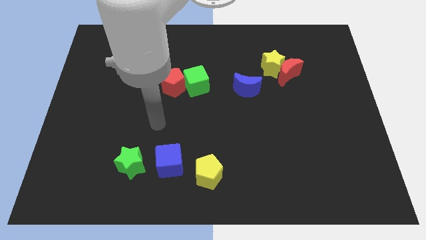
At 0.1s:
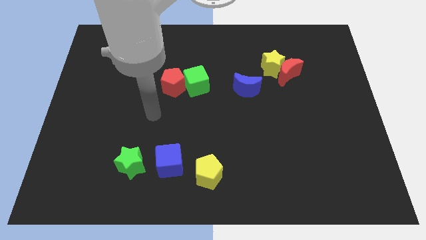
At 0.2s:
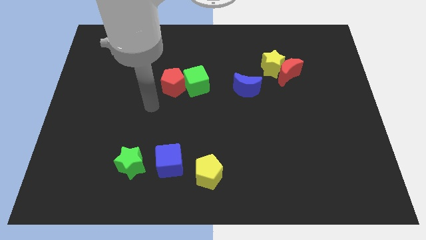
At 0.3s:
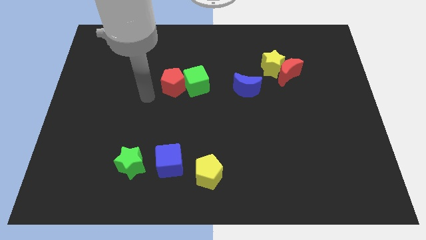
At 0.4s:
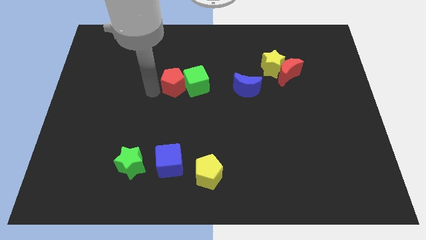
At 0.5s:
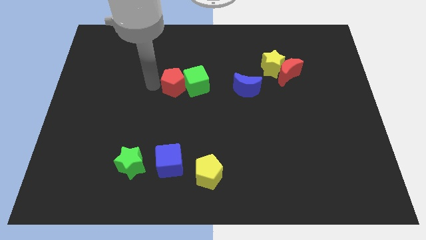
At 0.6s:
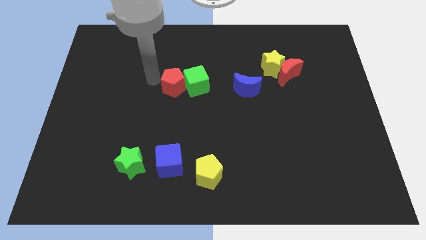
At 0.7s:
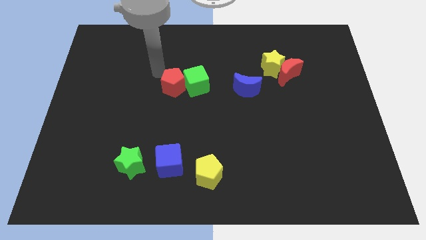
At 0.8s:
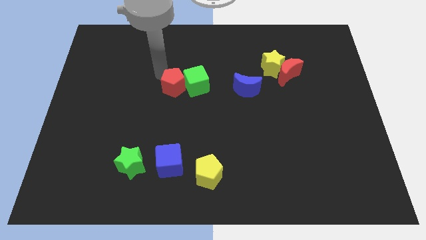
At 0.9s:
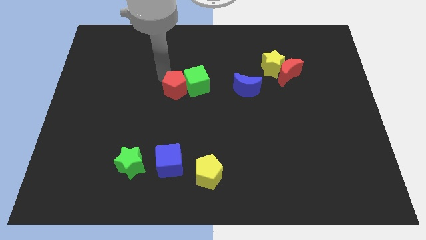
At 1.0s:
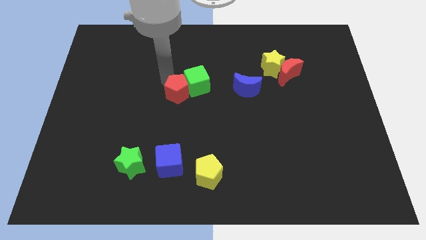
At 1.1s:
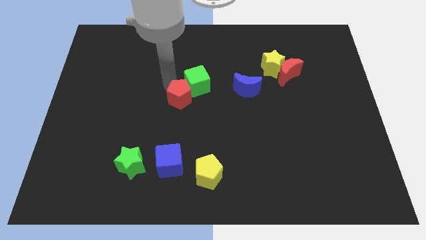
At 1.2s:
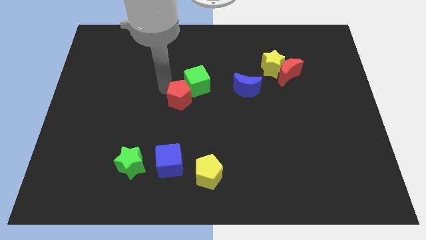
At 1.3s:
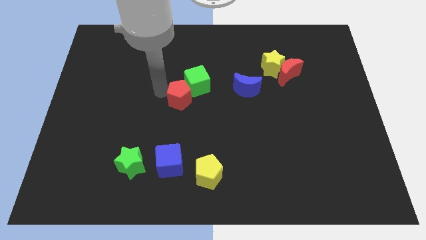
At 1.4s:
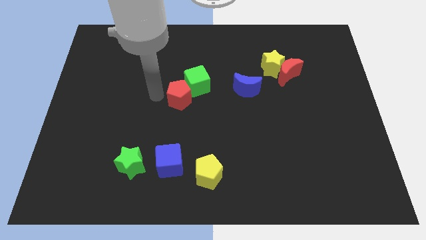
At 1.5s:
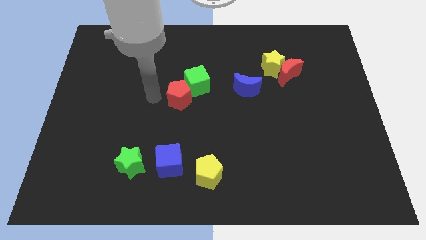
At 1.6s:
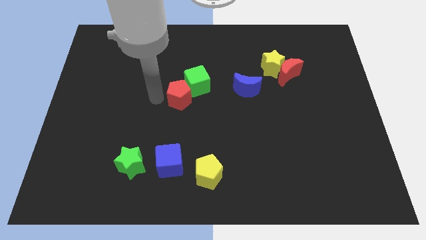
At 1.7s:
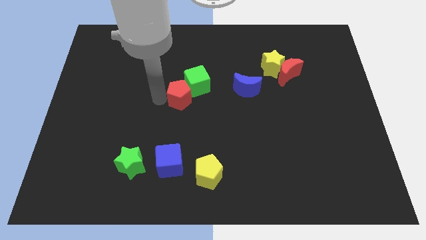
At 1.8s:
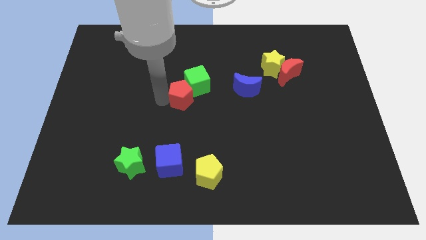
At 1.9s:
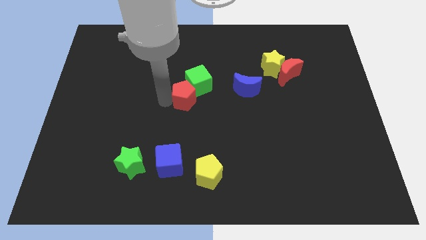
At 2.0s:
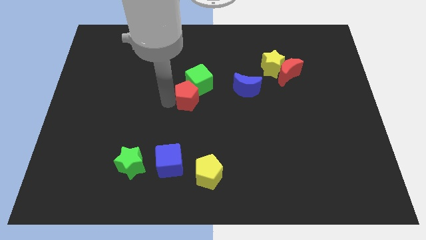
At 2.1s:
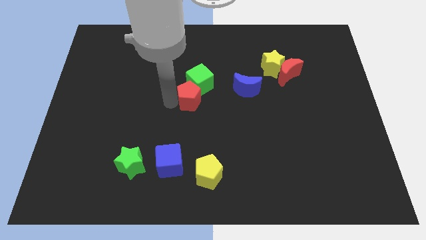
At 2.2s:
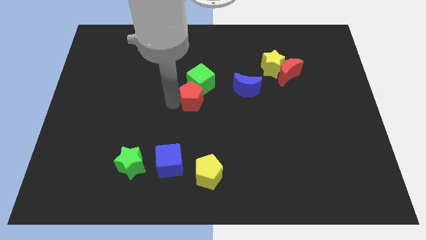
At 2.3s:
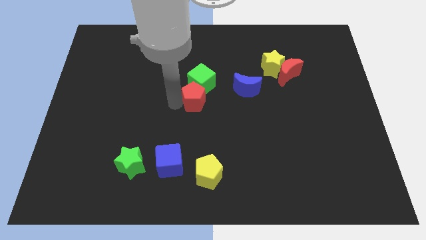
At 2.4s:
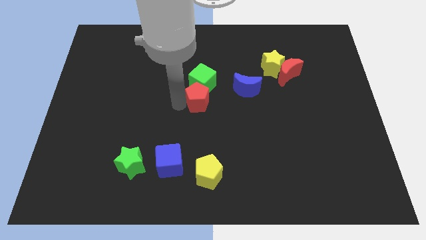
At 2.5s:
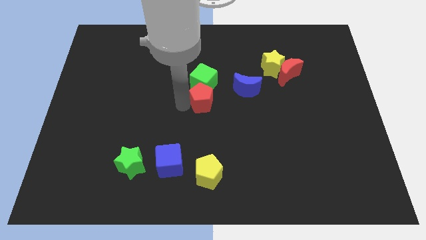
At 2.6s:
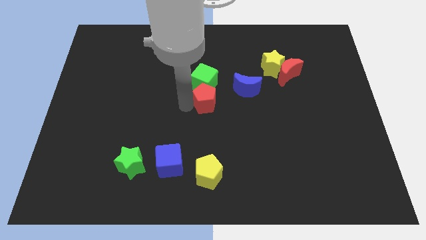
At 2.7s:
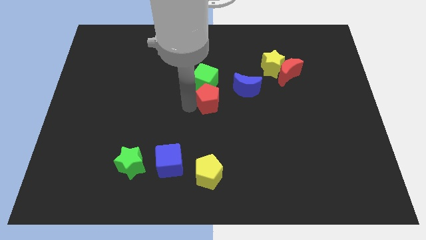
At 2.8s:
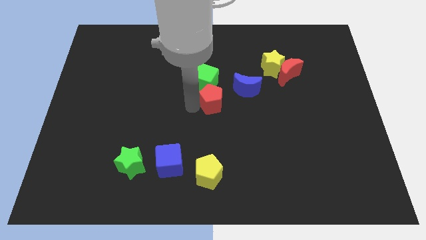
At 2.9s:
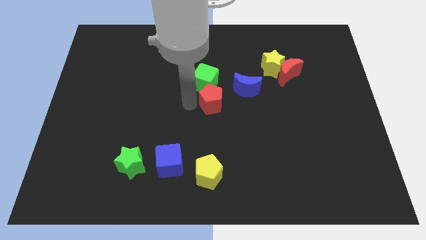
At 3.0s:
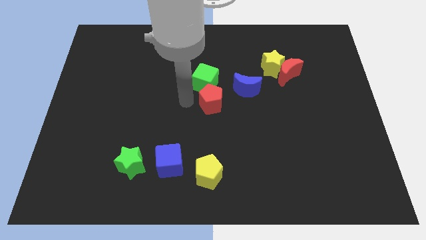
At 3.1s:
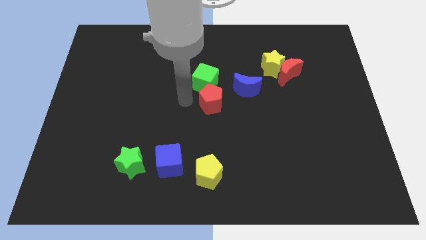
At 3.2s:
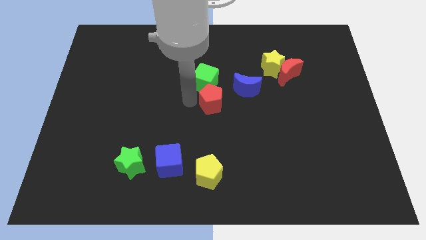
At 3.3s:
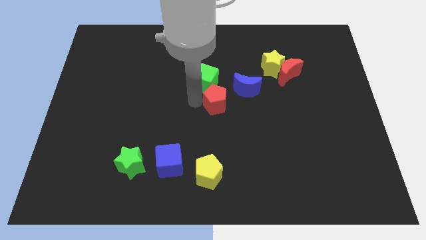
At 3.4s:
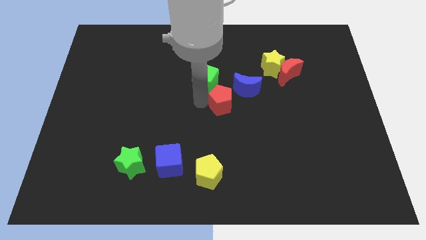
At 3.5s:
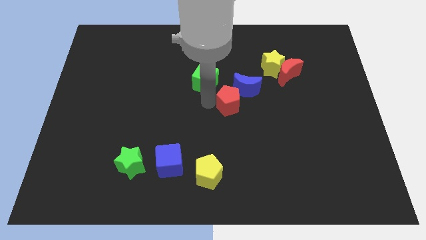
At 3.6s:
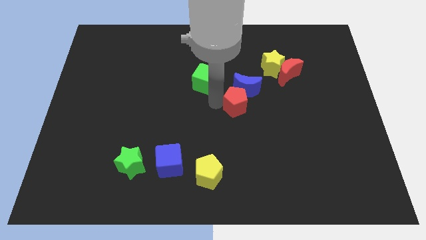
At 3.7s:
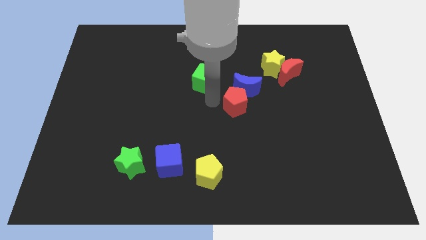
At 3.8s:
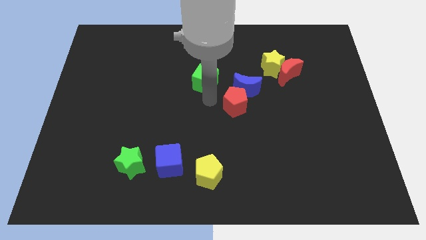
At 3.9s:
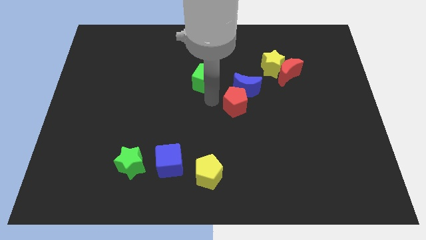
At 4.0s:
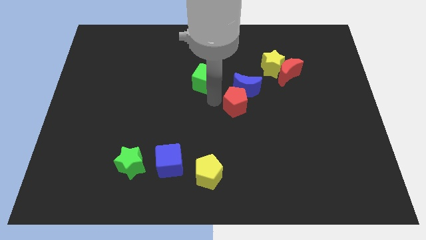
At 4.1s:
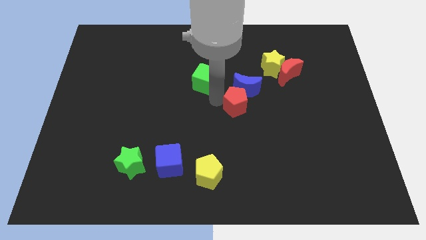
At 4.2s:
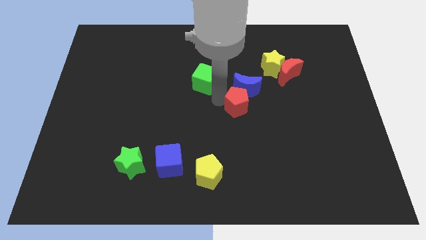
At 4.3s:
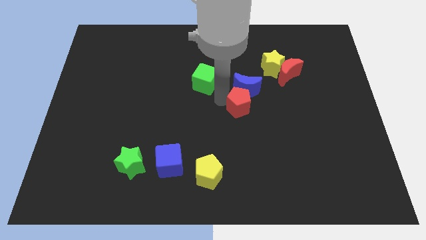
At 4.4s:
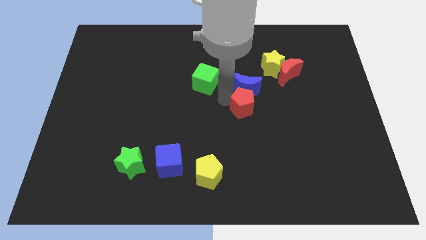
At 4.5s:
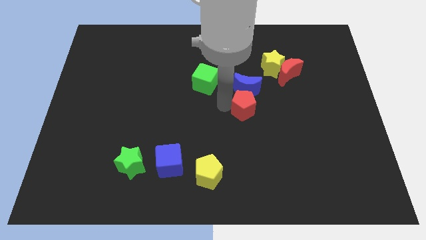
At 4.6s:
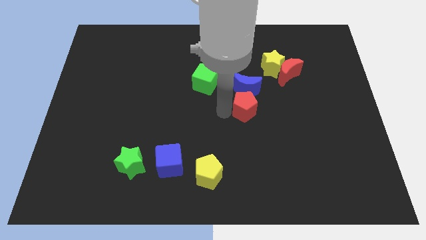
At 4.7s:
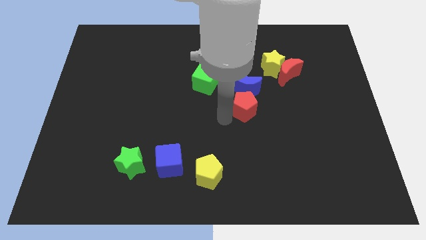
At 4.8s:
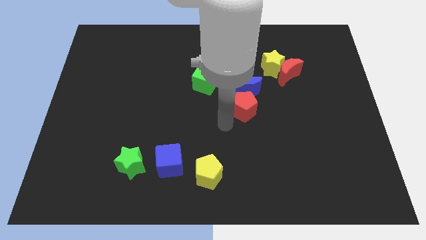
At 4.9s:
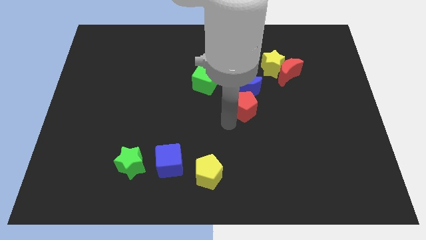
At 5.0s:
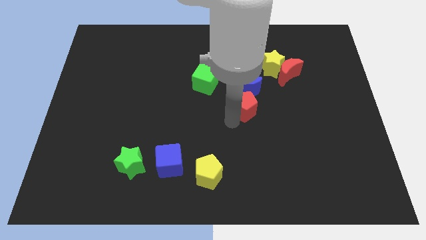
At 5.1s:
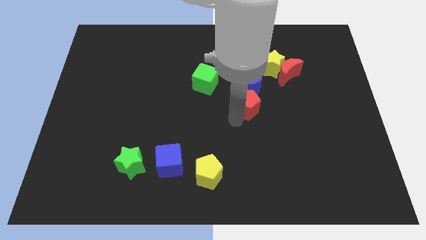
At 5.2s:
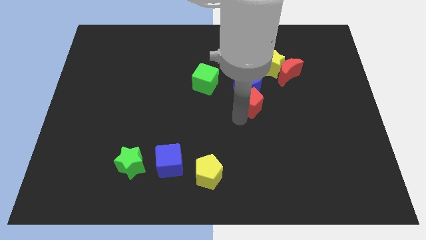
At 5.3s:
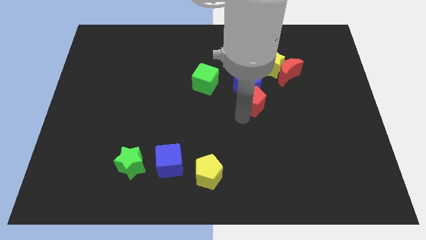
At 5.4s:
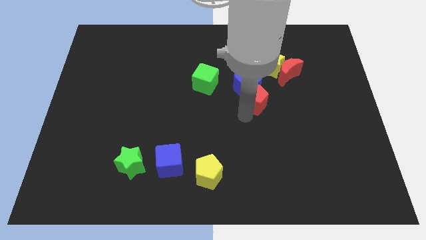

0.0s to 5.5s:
slide the red pentagon to the bottom left of the red moon

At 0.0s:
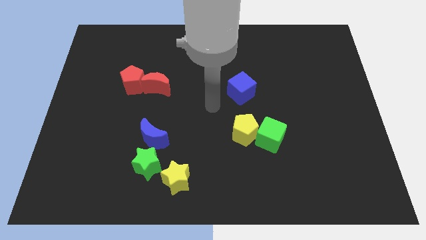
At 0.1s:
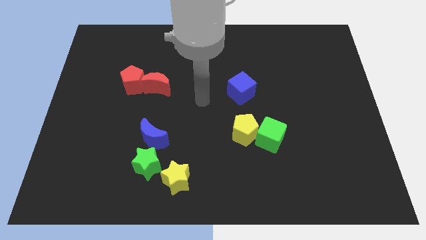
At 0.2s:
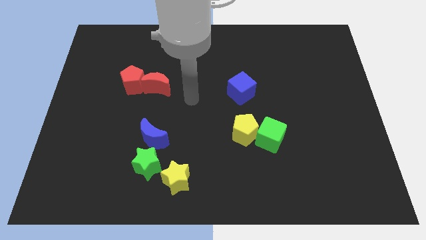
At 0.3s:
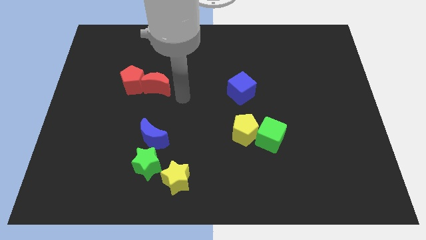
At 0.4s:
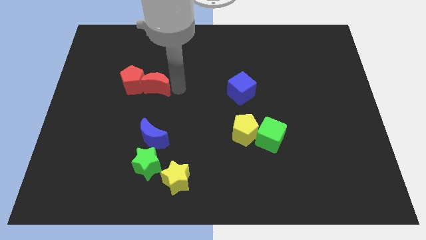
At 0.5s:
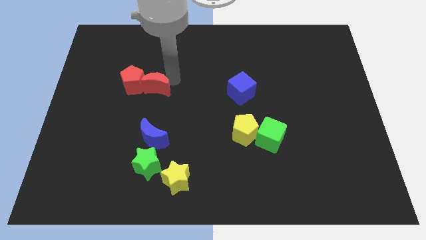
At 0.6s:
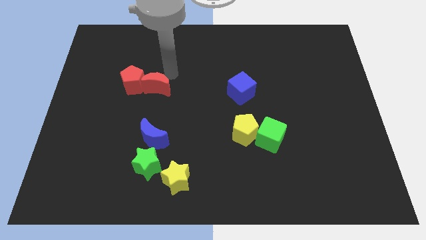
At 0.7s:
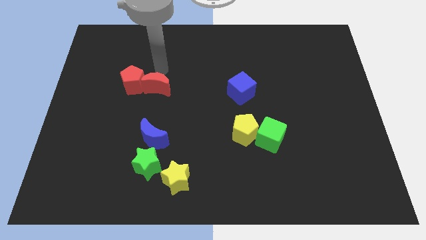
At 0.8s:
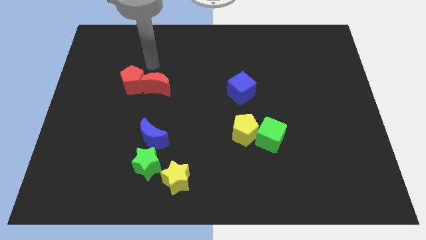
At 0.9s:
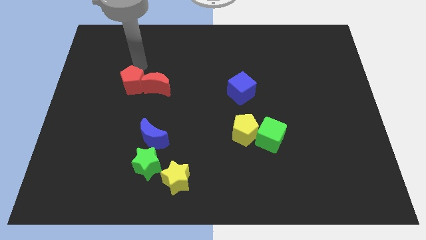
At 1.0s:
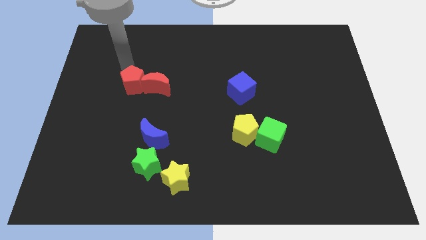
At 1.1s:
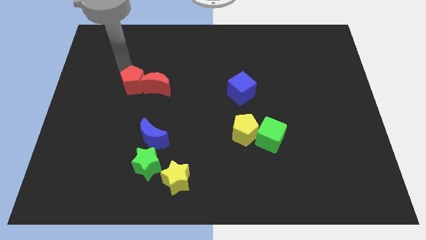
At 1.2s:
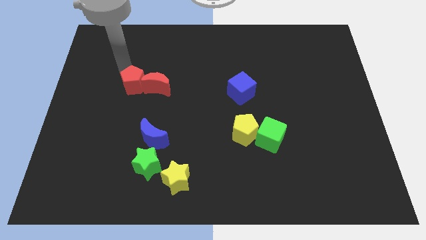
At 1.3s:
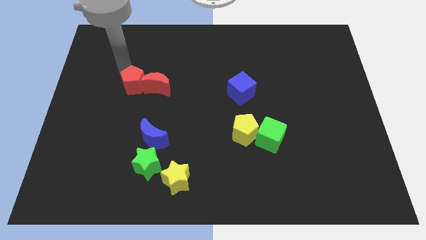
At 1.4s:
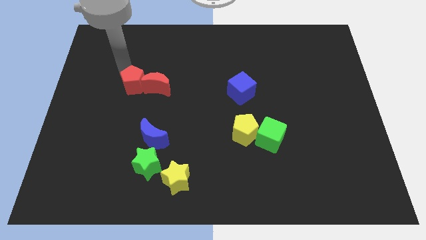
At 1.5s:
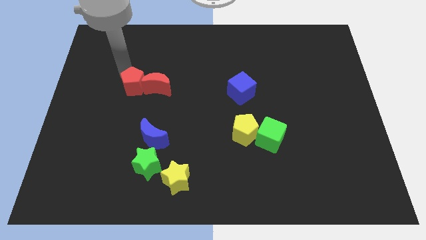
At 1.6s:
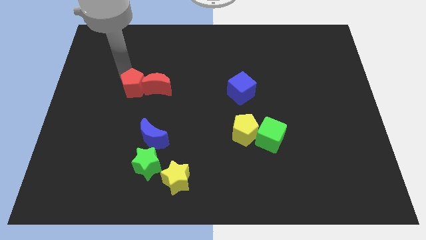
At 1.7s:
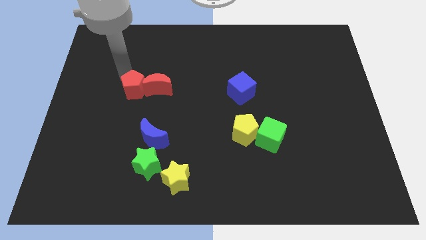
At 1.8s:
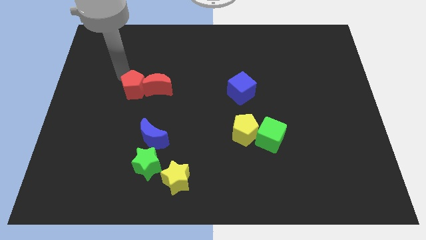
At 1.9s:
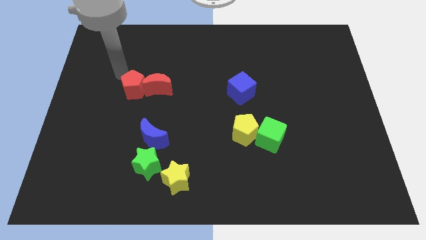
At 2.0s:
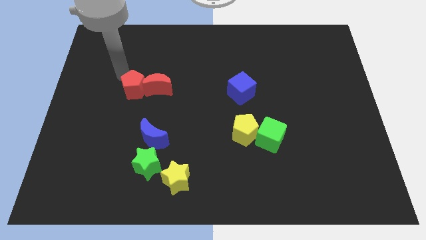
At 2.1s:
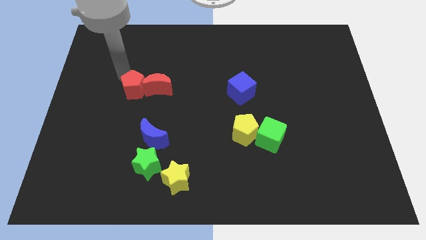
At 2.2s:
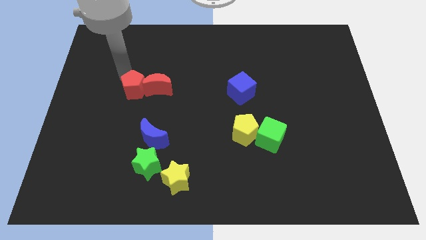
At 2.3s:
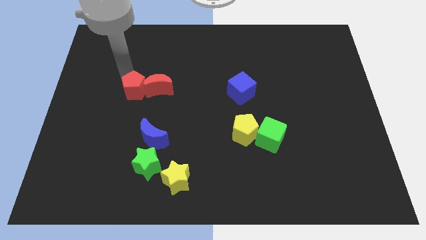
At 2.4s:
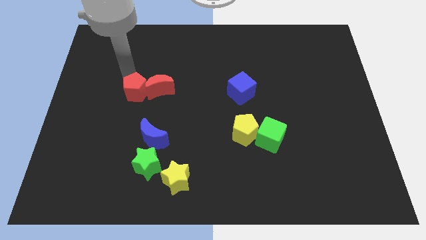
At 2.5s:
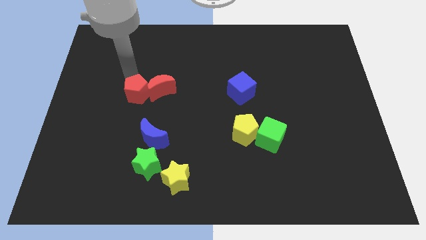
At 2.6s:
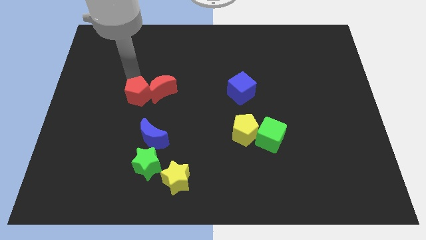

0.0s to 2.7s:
slide the red pentagon to the top side of the blue moon

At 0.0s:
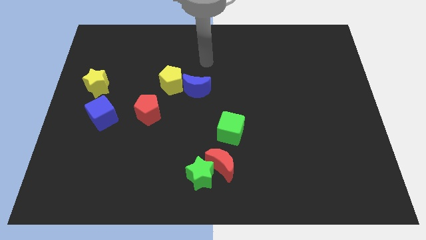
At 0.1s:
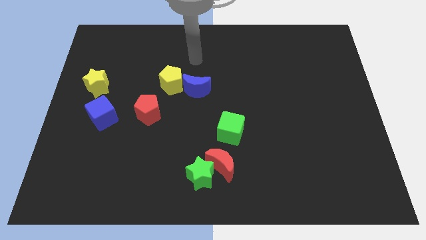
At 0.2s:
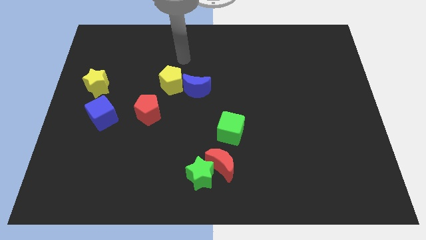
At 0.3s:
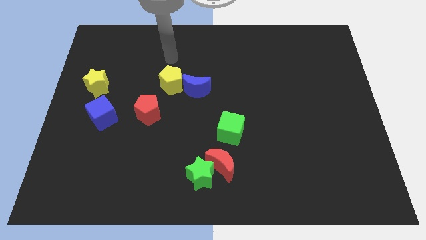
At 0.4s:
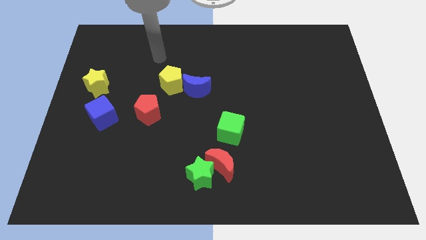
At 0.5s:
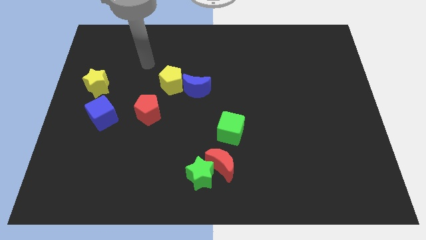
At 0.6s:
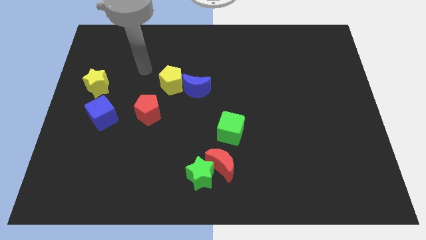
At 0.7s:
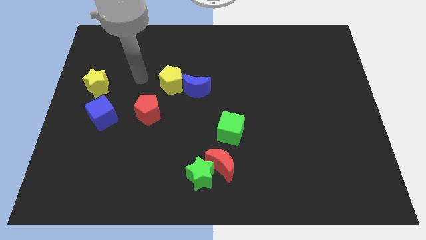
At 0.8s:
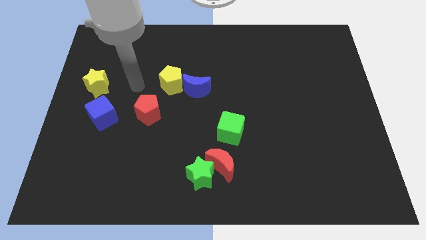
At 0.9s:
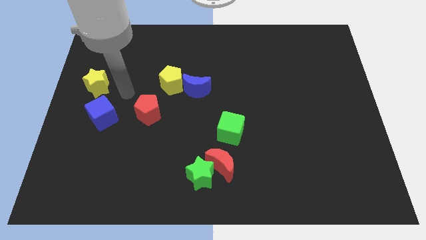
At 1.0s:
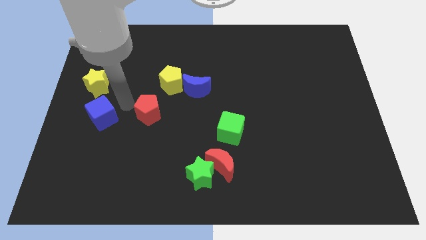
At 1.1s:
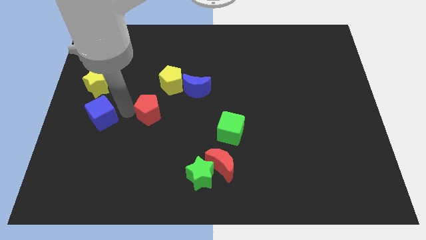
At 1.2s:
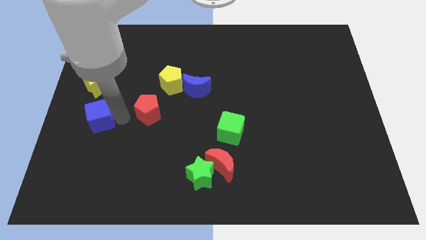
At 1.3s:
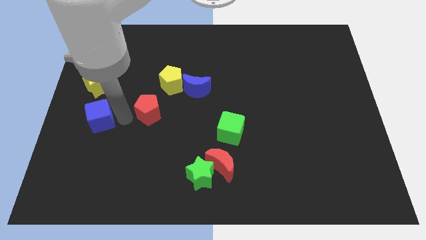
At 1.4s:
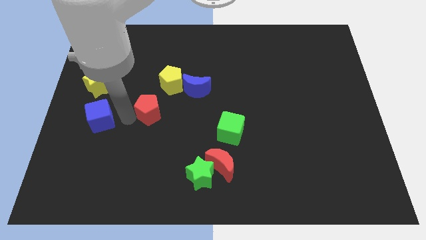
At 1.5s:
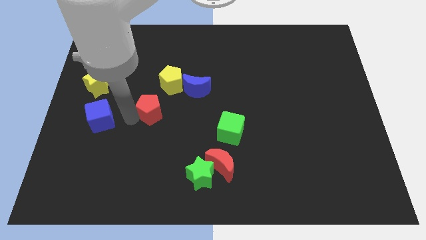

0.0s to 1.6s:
push the red pentagon diagonally down and to the left of the blue moon
